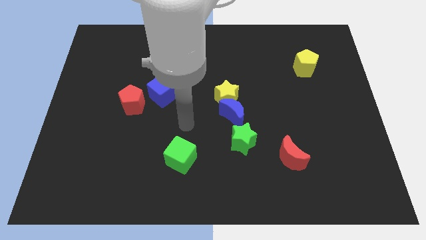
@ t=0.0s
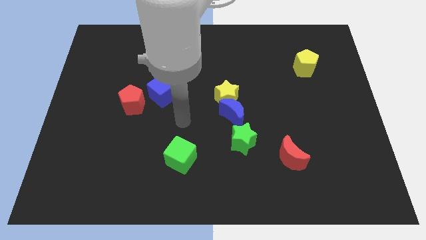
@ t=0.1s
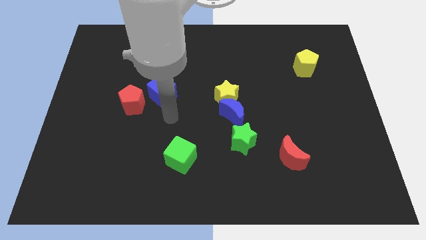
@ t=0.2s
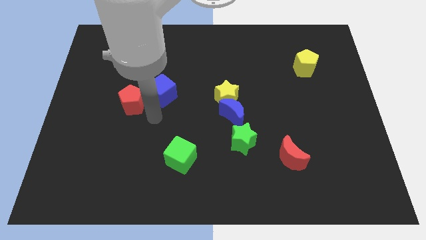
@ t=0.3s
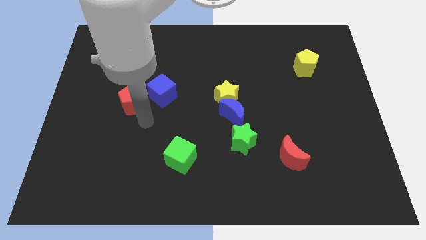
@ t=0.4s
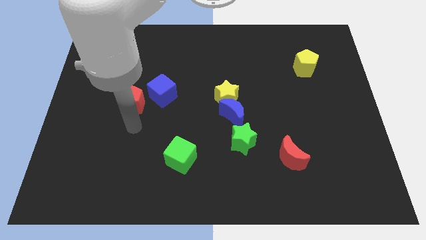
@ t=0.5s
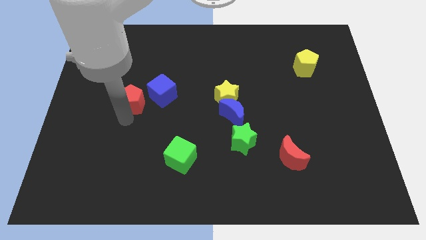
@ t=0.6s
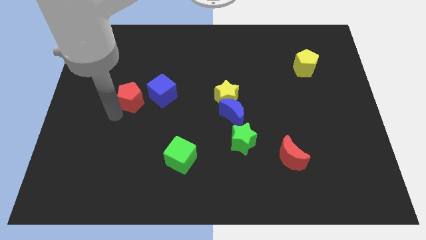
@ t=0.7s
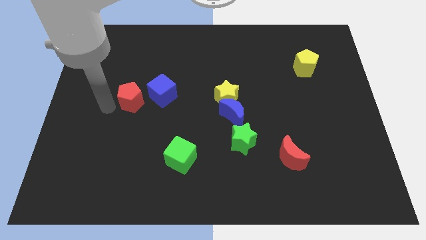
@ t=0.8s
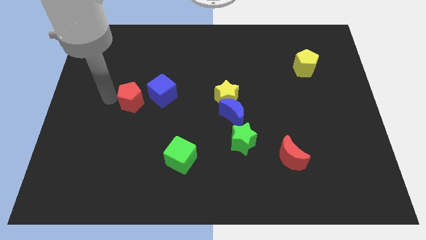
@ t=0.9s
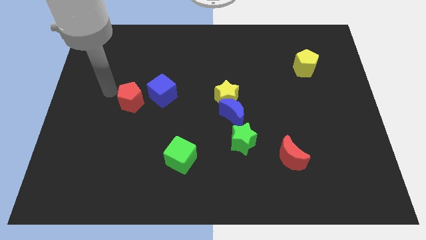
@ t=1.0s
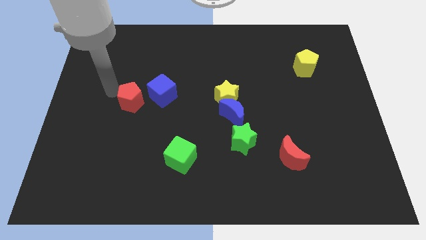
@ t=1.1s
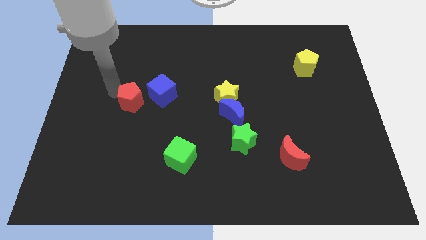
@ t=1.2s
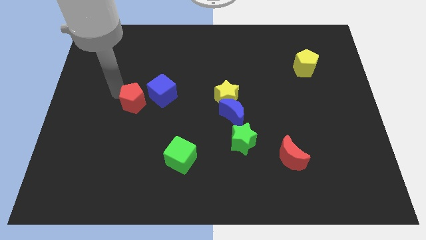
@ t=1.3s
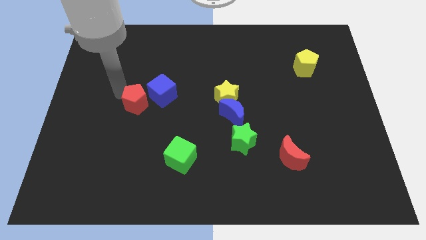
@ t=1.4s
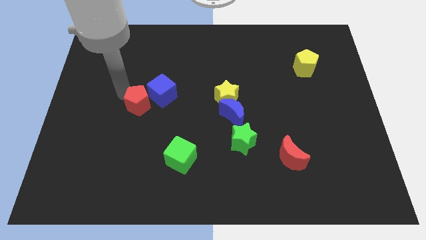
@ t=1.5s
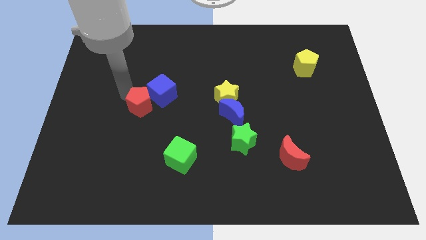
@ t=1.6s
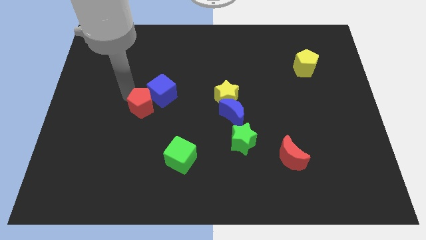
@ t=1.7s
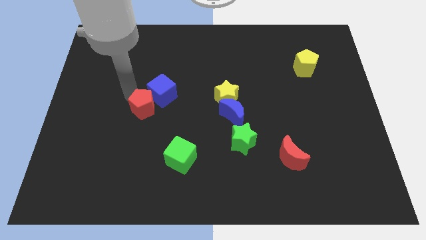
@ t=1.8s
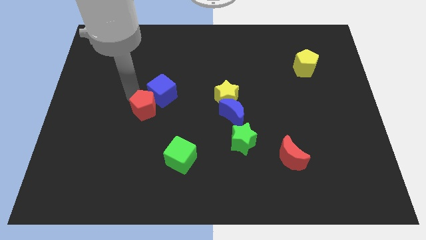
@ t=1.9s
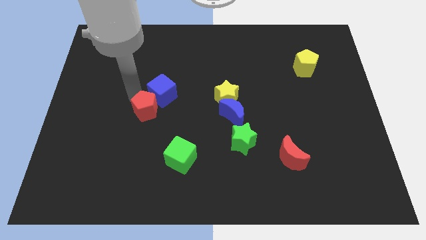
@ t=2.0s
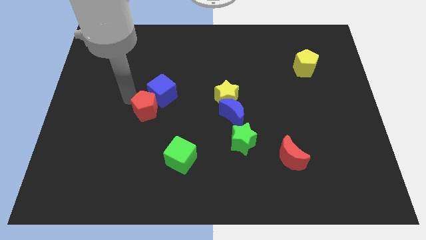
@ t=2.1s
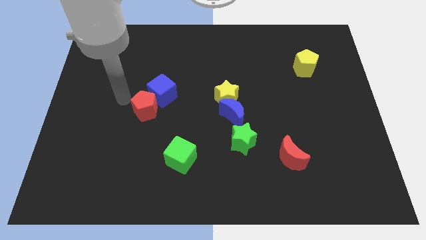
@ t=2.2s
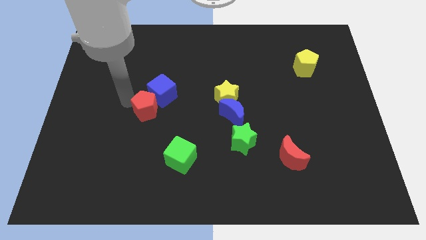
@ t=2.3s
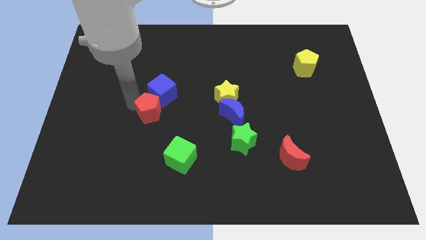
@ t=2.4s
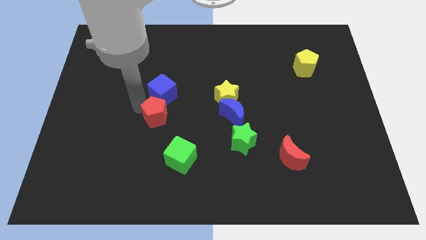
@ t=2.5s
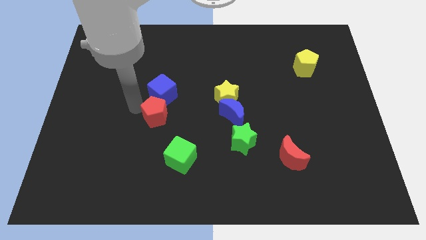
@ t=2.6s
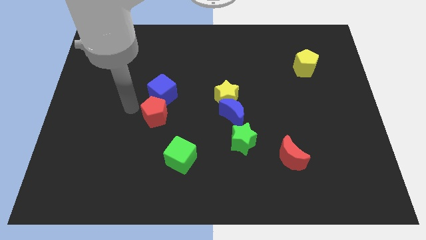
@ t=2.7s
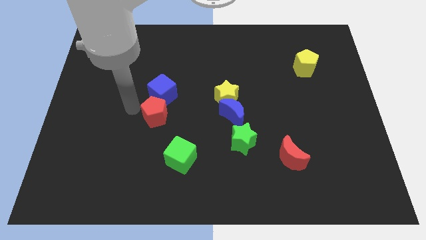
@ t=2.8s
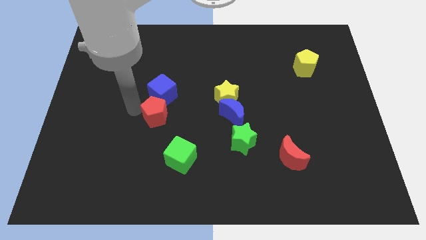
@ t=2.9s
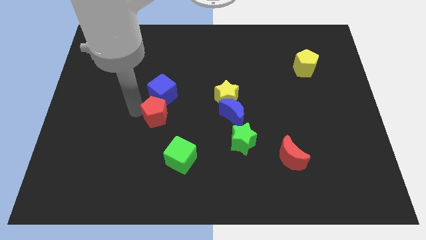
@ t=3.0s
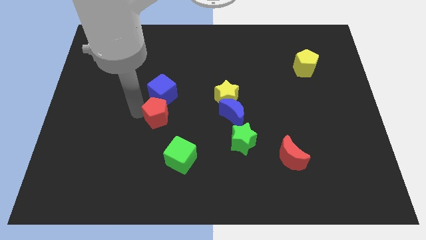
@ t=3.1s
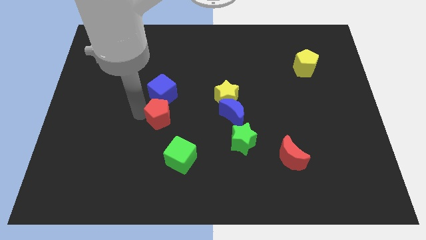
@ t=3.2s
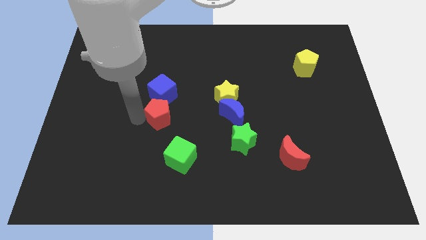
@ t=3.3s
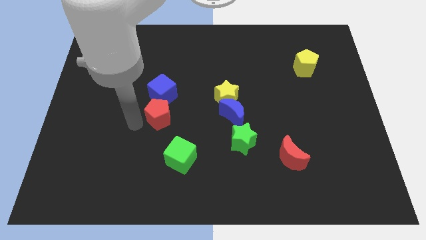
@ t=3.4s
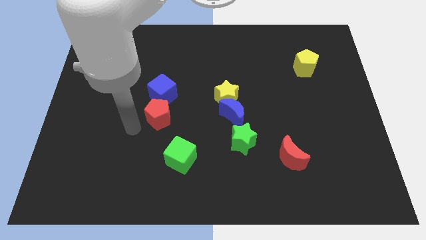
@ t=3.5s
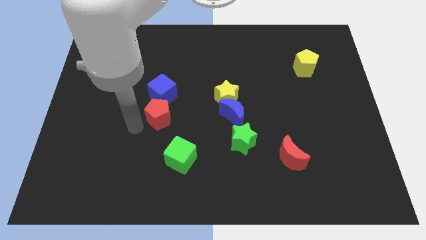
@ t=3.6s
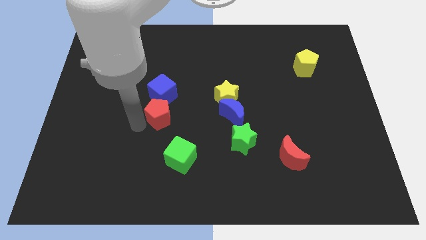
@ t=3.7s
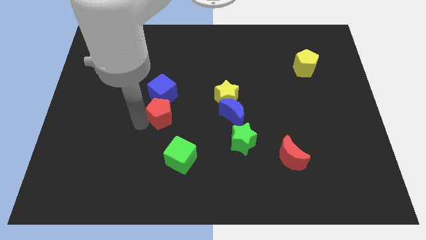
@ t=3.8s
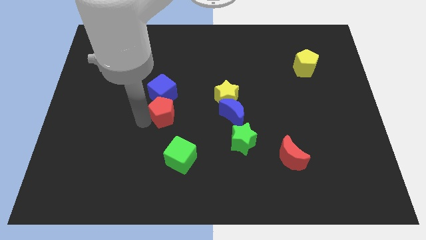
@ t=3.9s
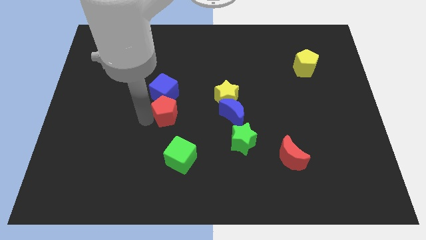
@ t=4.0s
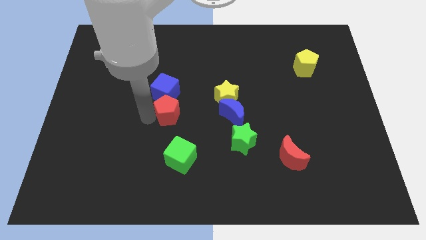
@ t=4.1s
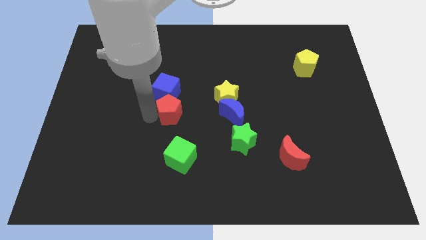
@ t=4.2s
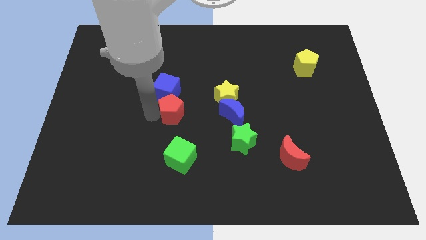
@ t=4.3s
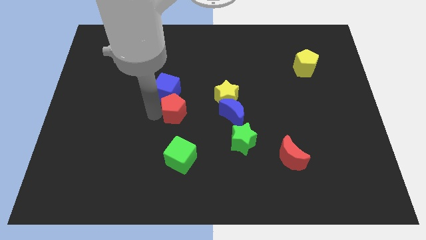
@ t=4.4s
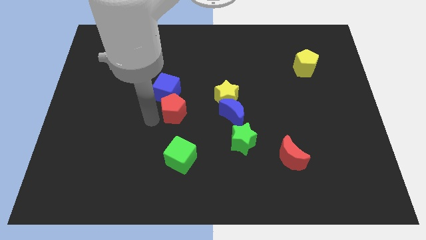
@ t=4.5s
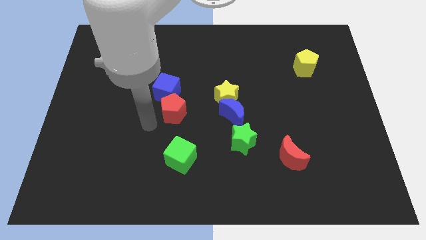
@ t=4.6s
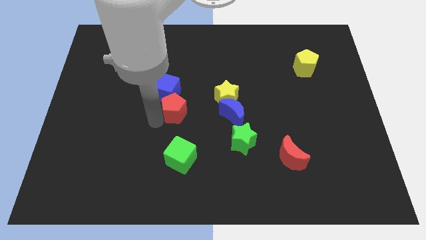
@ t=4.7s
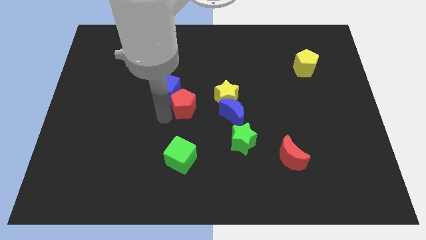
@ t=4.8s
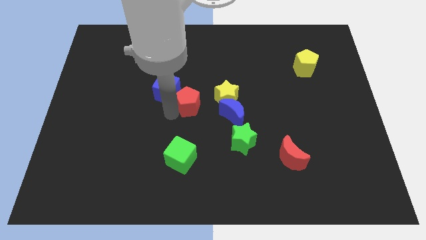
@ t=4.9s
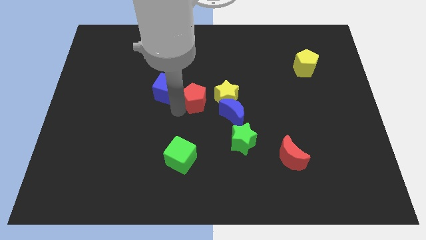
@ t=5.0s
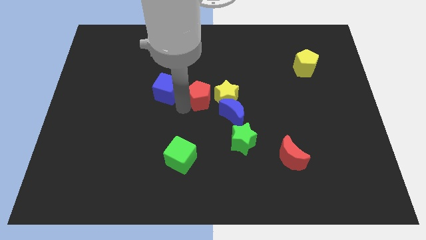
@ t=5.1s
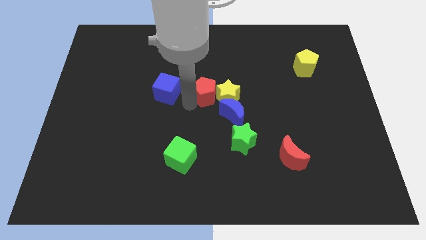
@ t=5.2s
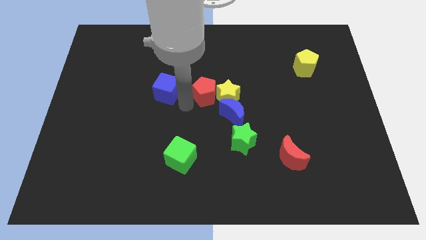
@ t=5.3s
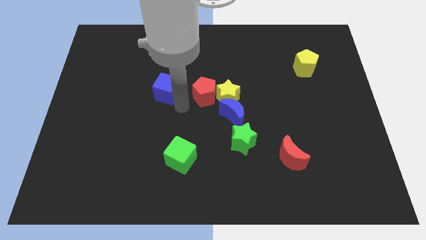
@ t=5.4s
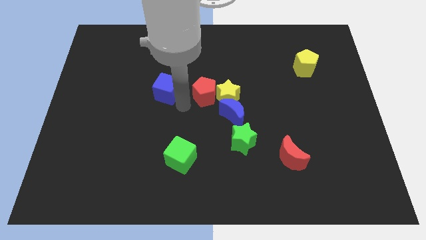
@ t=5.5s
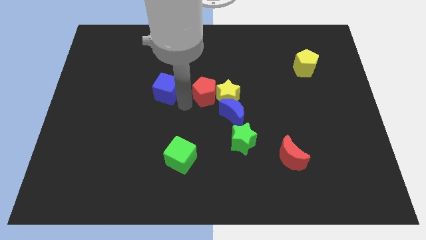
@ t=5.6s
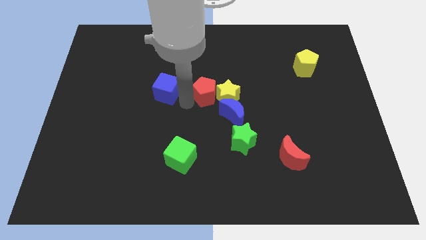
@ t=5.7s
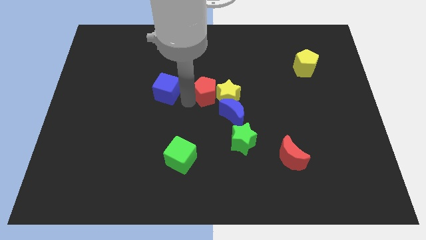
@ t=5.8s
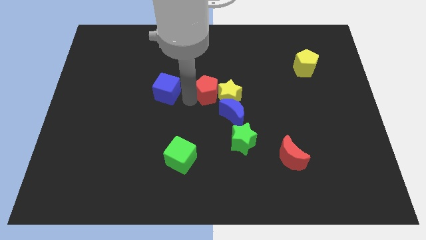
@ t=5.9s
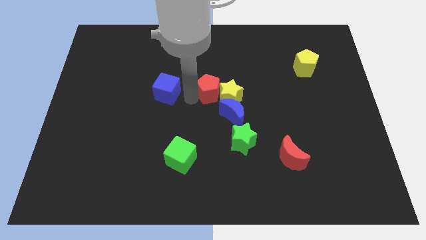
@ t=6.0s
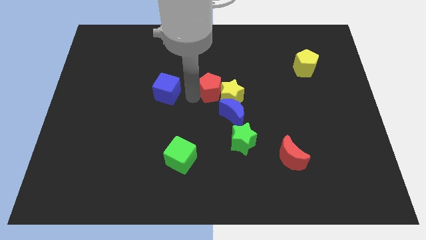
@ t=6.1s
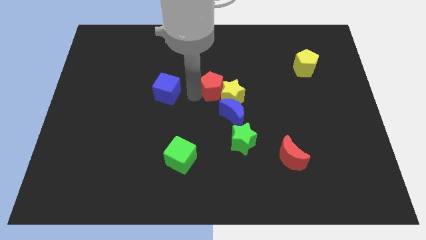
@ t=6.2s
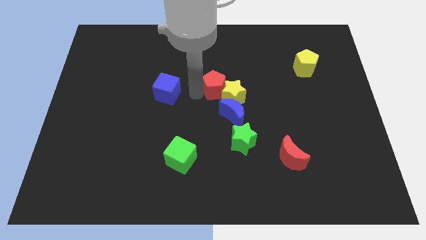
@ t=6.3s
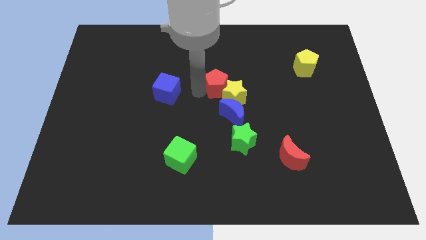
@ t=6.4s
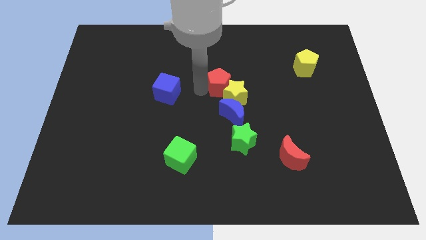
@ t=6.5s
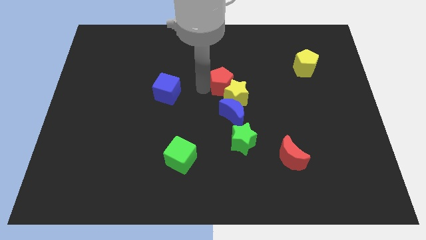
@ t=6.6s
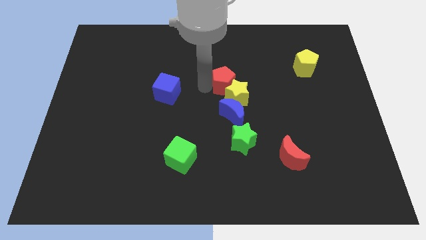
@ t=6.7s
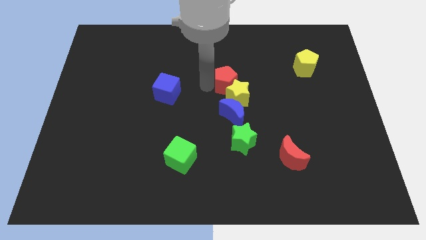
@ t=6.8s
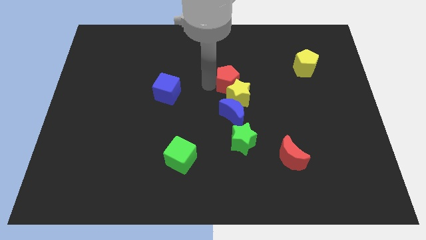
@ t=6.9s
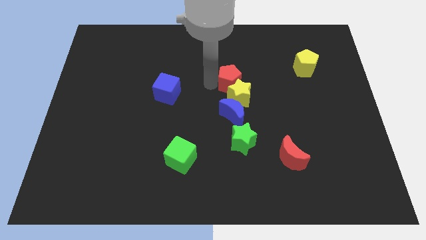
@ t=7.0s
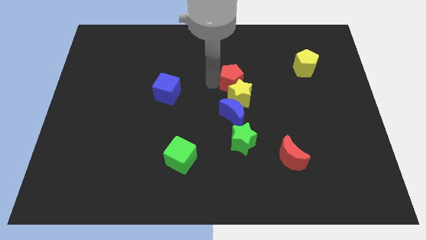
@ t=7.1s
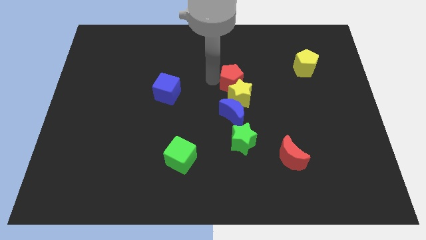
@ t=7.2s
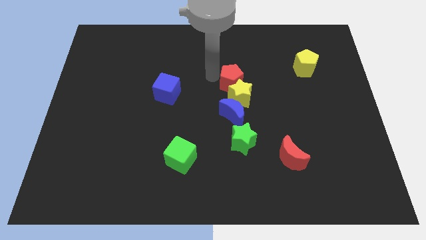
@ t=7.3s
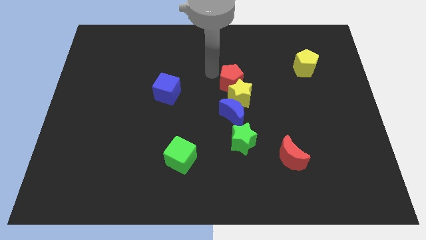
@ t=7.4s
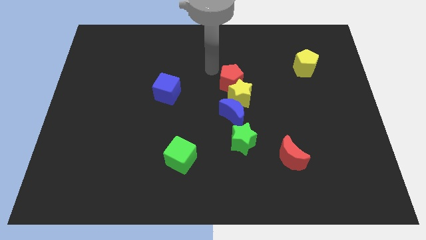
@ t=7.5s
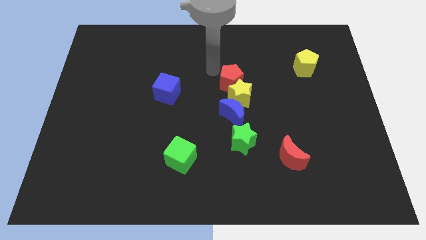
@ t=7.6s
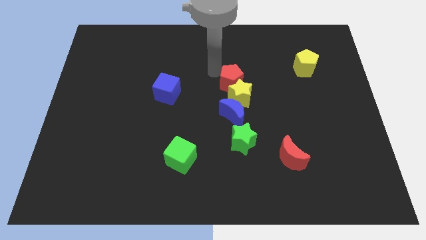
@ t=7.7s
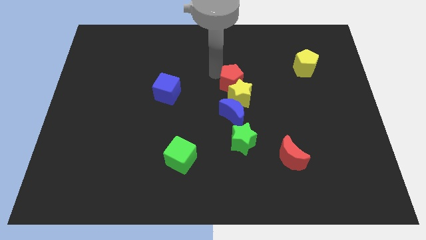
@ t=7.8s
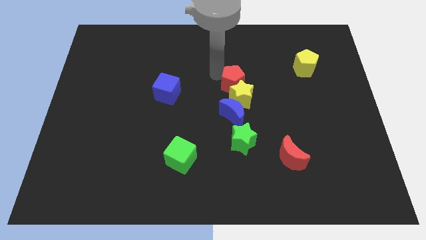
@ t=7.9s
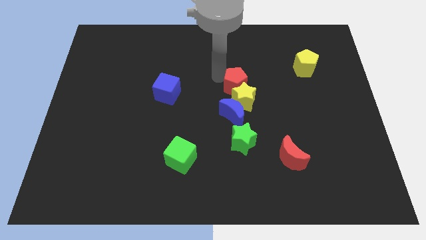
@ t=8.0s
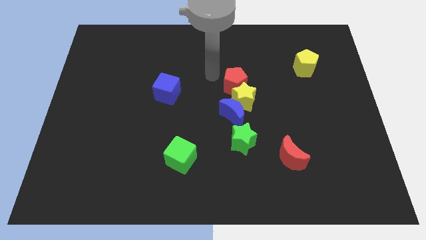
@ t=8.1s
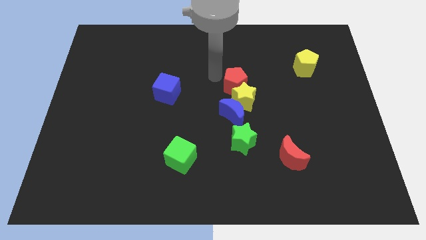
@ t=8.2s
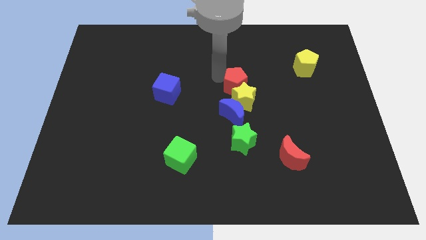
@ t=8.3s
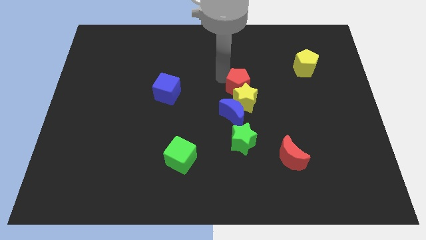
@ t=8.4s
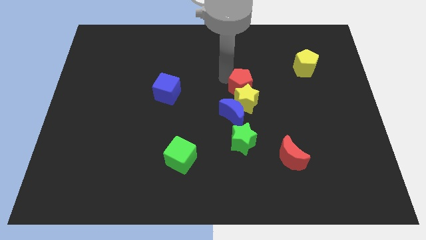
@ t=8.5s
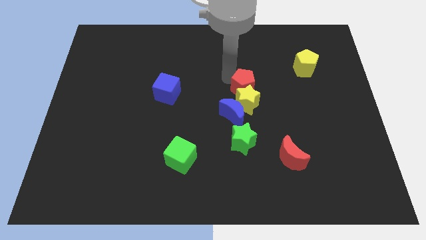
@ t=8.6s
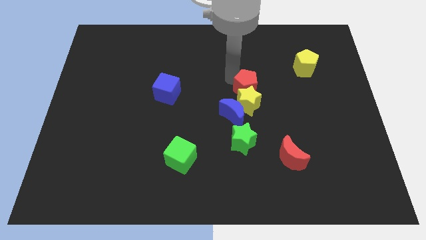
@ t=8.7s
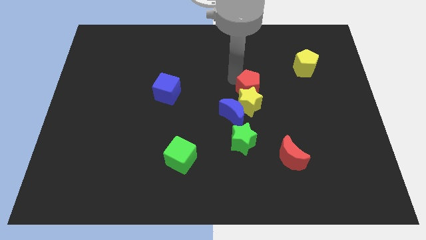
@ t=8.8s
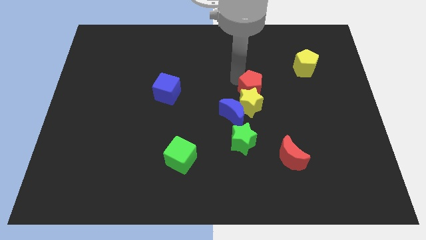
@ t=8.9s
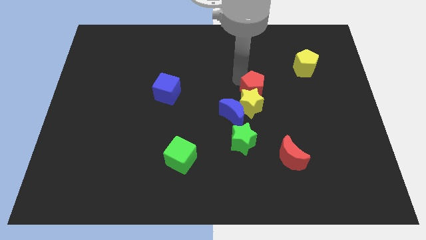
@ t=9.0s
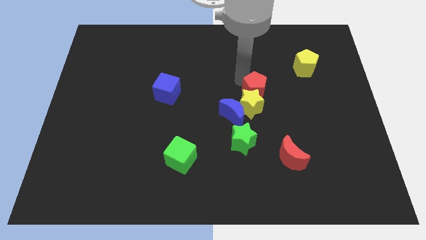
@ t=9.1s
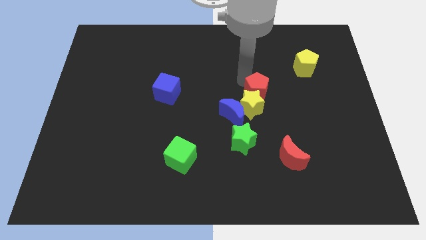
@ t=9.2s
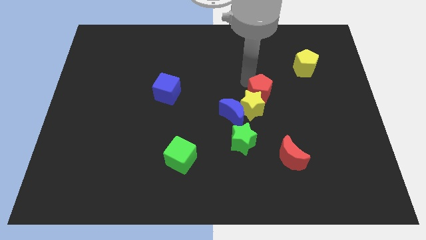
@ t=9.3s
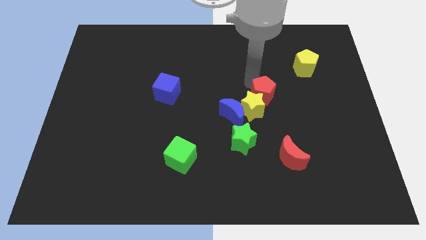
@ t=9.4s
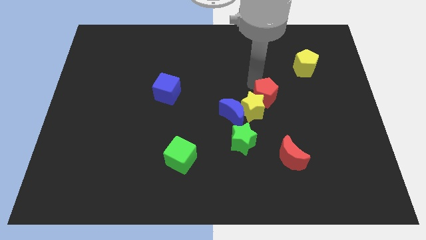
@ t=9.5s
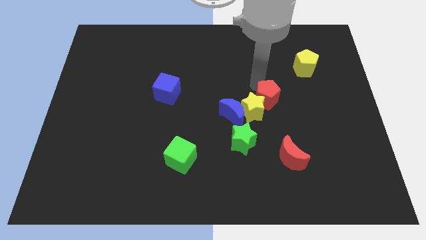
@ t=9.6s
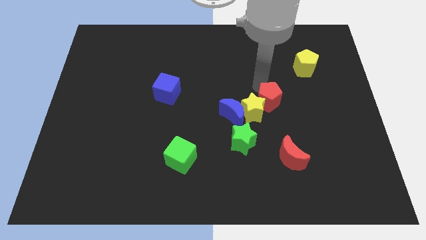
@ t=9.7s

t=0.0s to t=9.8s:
move the red pentagon right of the blue moon
